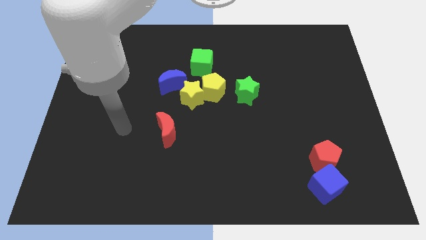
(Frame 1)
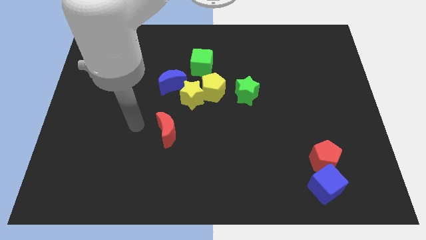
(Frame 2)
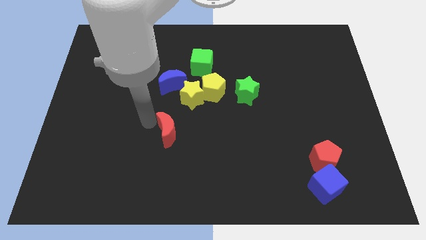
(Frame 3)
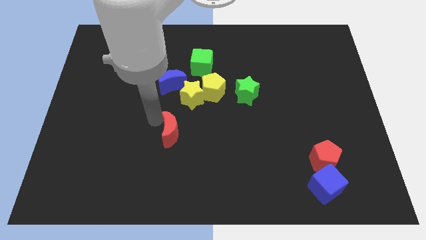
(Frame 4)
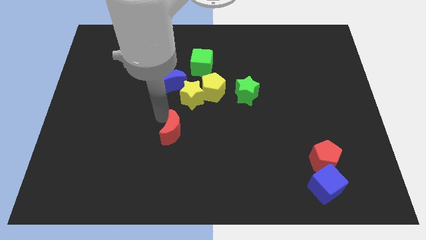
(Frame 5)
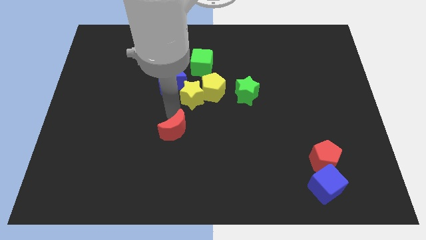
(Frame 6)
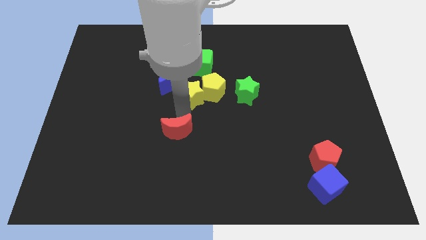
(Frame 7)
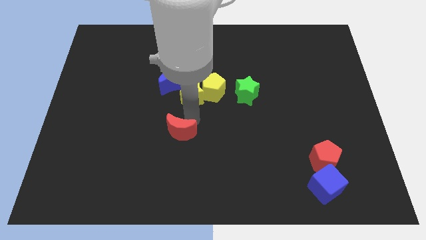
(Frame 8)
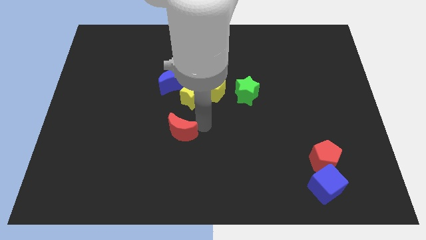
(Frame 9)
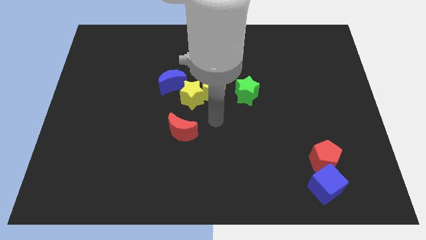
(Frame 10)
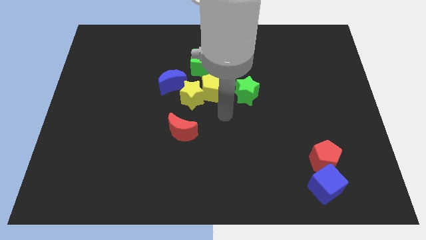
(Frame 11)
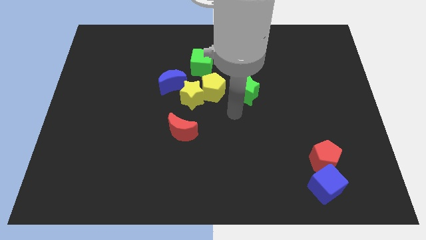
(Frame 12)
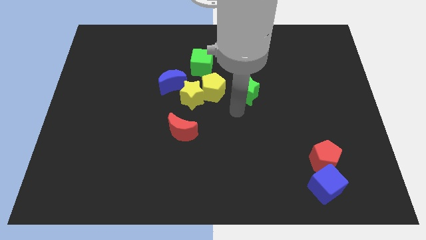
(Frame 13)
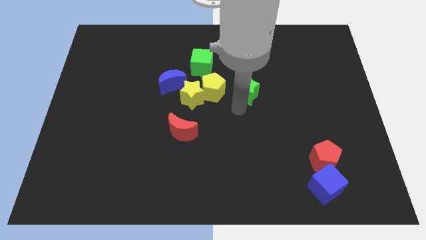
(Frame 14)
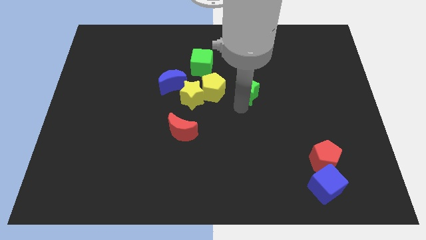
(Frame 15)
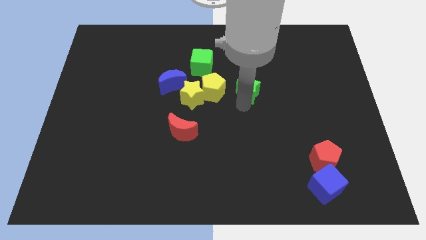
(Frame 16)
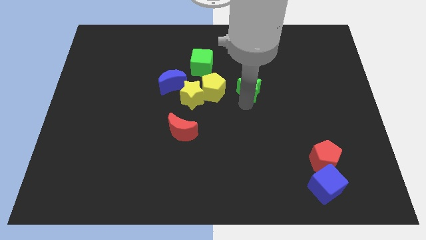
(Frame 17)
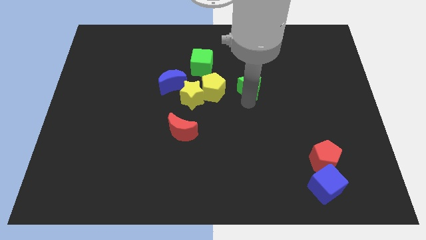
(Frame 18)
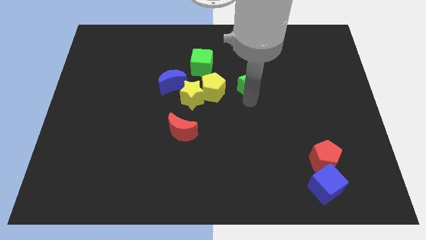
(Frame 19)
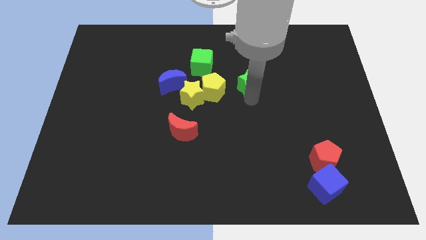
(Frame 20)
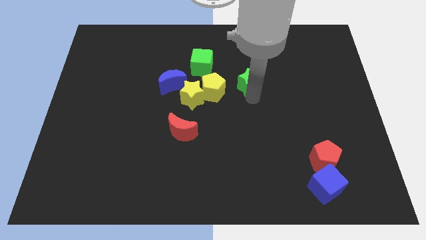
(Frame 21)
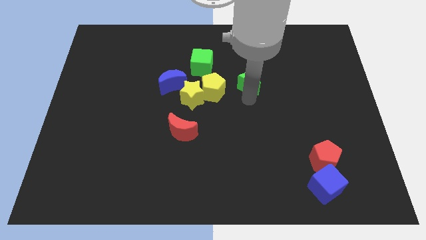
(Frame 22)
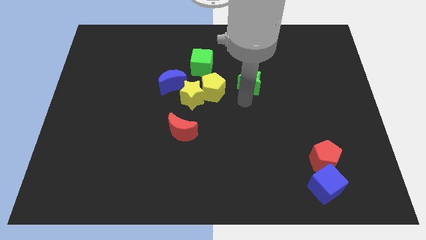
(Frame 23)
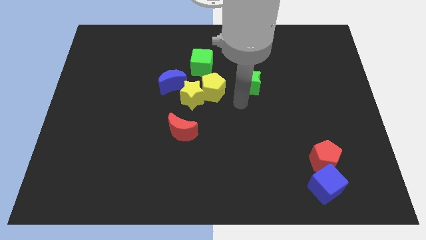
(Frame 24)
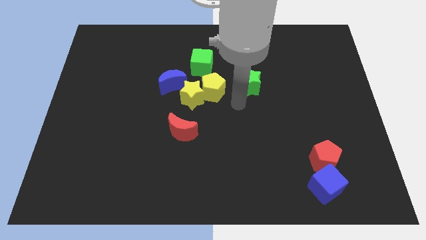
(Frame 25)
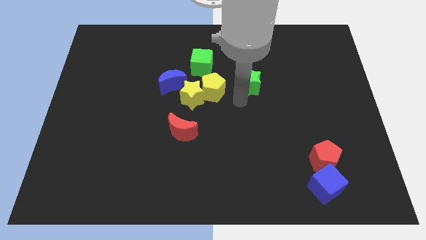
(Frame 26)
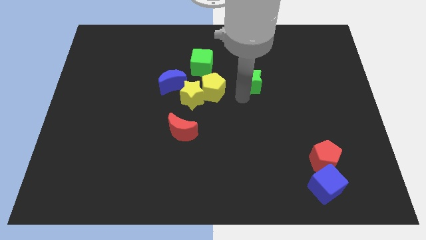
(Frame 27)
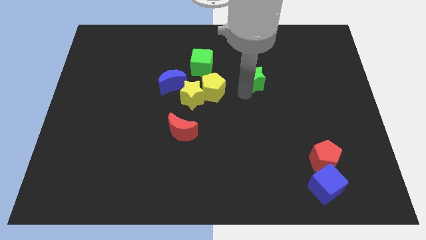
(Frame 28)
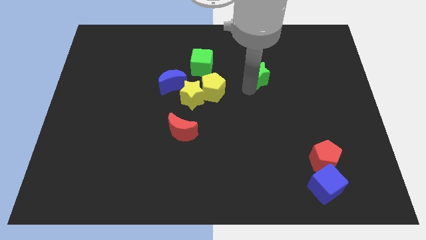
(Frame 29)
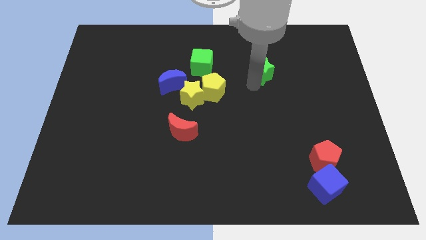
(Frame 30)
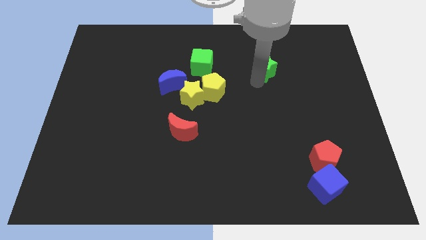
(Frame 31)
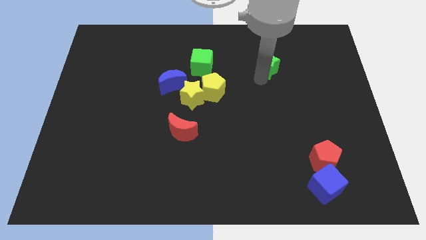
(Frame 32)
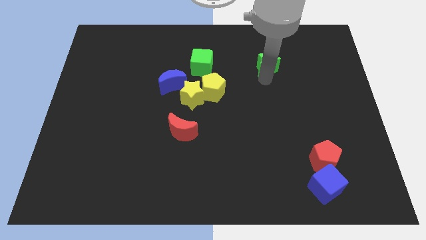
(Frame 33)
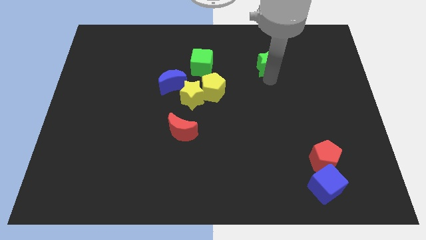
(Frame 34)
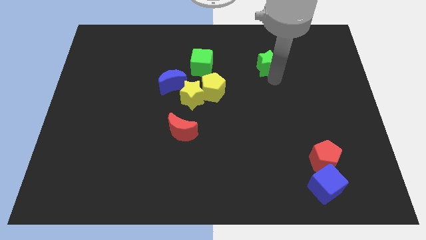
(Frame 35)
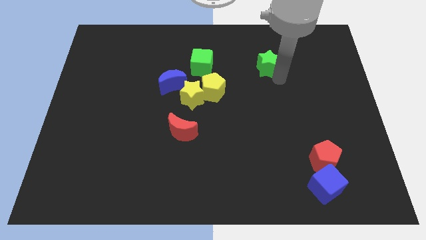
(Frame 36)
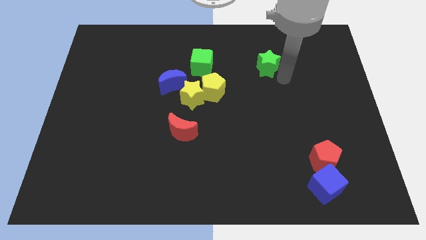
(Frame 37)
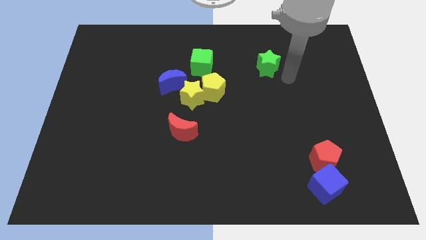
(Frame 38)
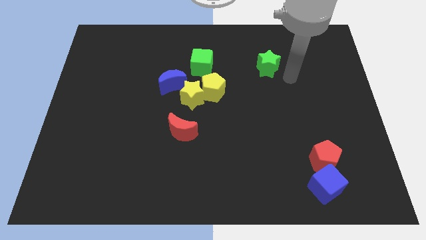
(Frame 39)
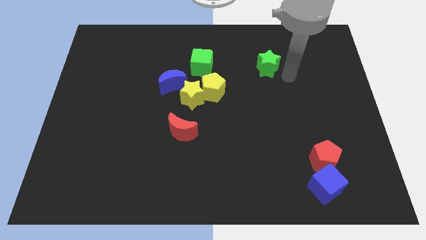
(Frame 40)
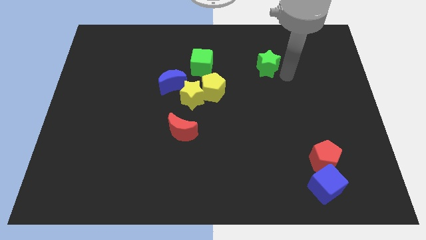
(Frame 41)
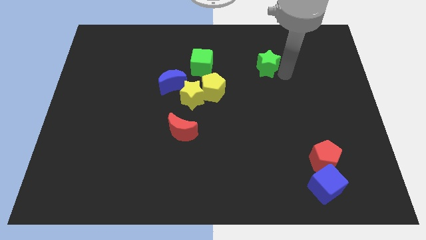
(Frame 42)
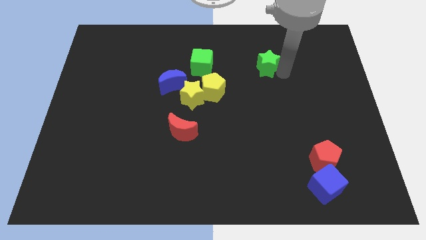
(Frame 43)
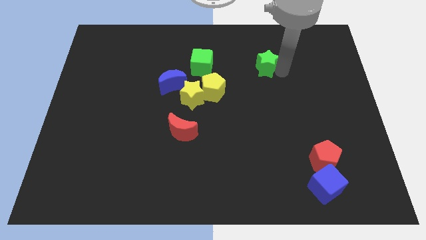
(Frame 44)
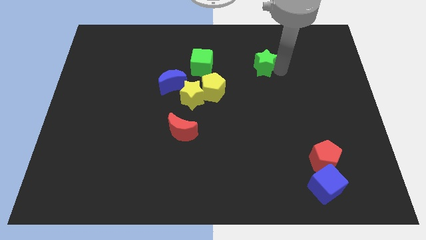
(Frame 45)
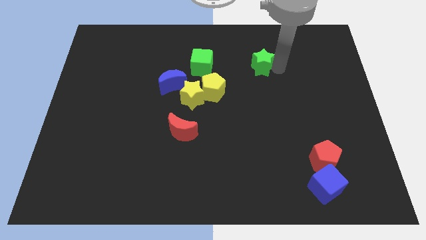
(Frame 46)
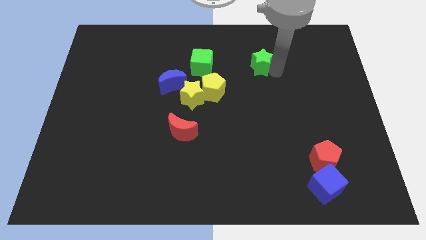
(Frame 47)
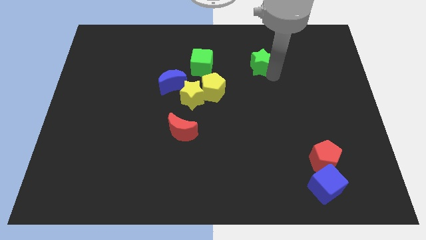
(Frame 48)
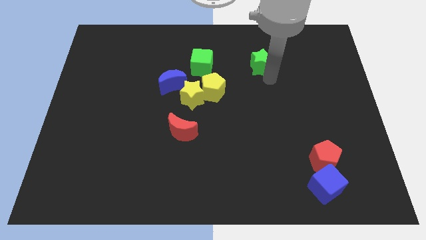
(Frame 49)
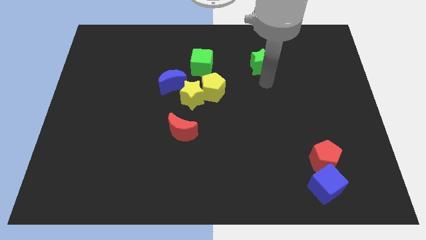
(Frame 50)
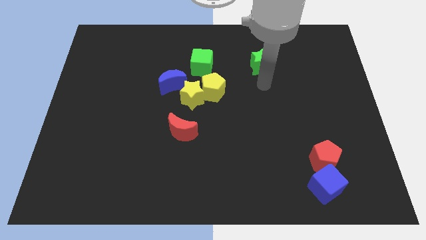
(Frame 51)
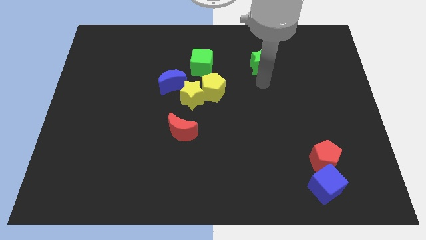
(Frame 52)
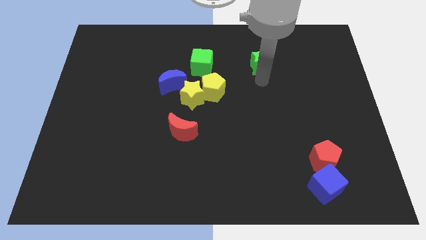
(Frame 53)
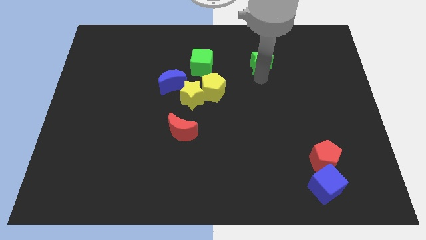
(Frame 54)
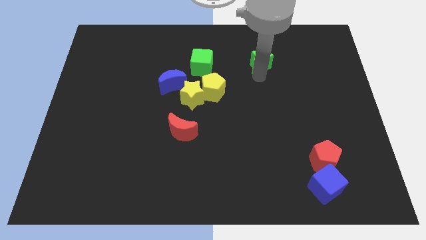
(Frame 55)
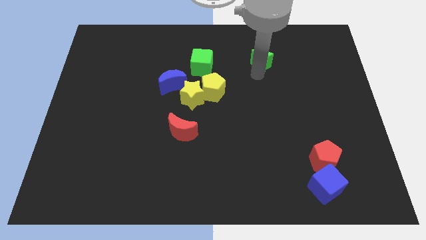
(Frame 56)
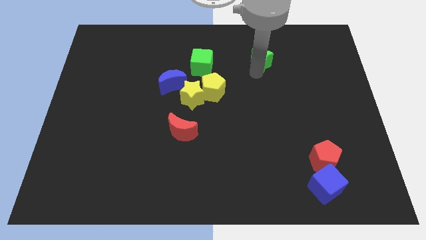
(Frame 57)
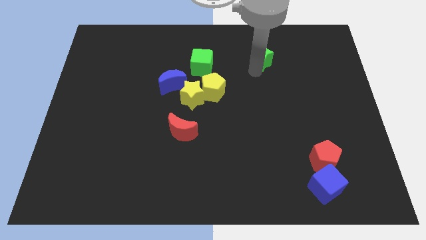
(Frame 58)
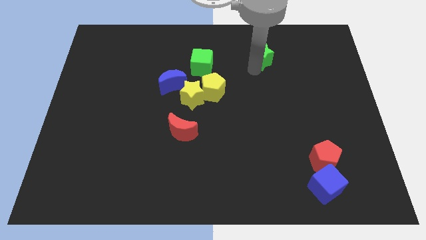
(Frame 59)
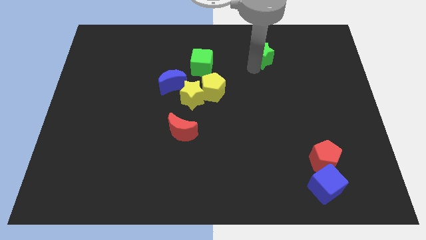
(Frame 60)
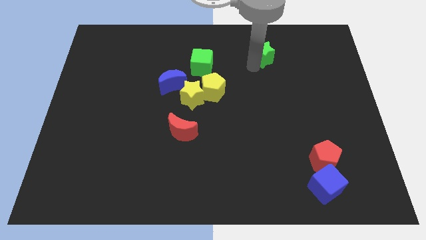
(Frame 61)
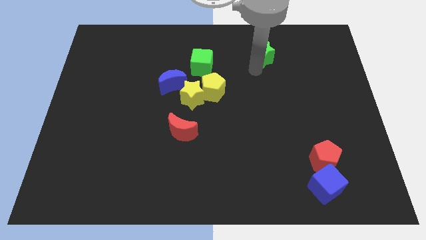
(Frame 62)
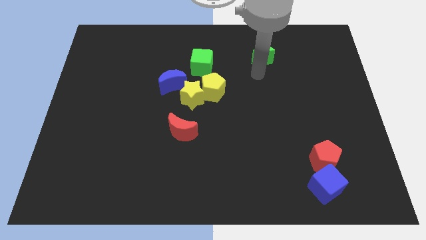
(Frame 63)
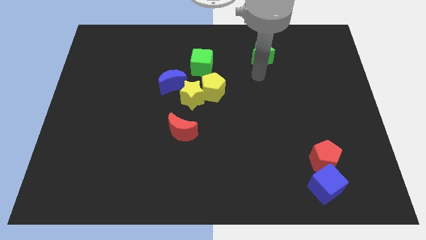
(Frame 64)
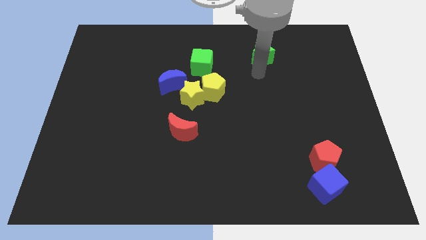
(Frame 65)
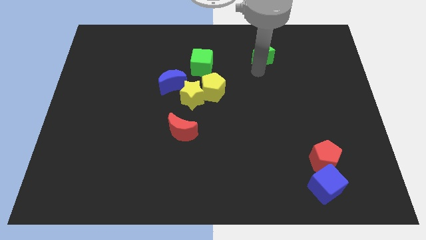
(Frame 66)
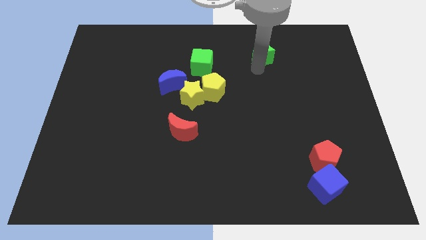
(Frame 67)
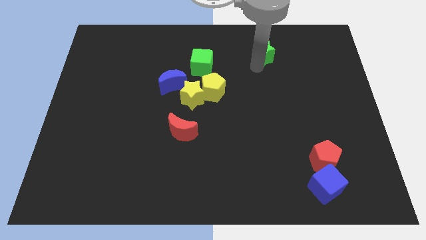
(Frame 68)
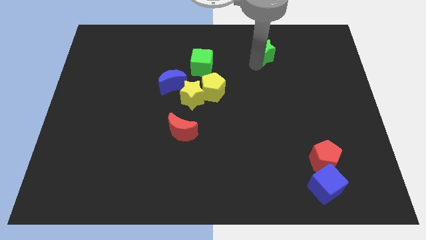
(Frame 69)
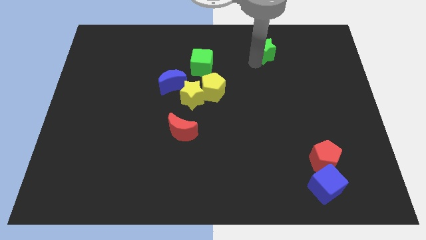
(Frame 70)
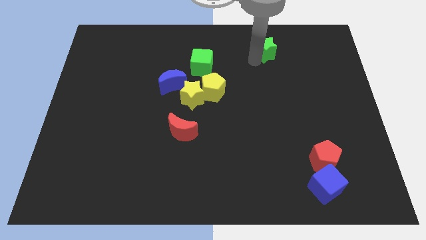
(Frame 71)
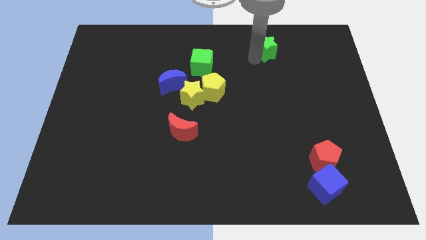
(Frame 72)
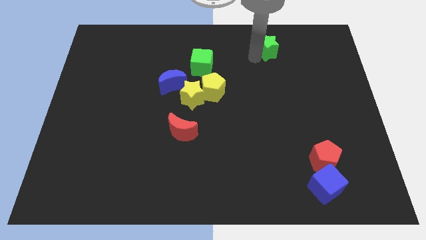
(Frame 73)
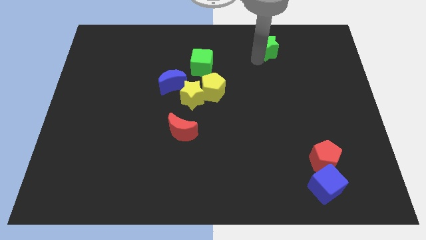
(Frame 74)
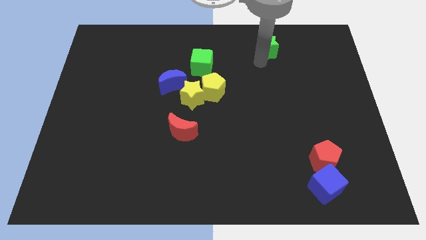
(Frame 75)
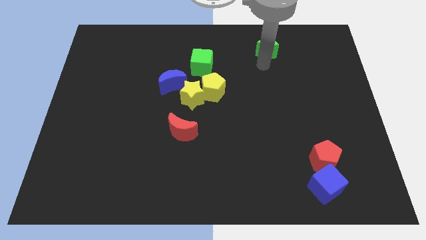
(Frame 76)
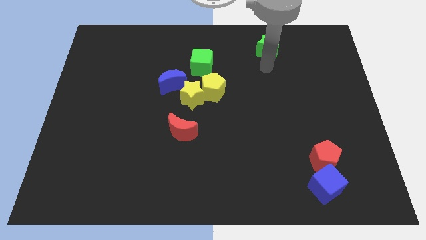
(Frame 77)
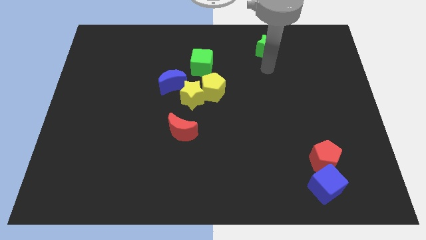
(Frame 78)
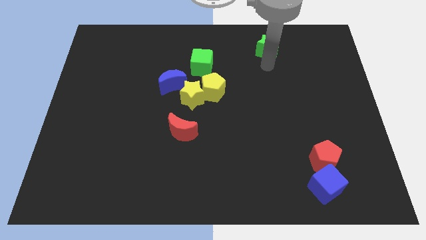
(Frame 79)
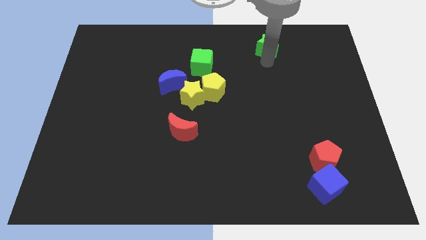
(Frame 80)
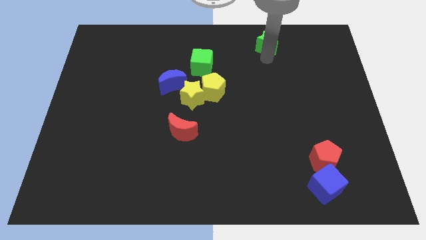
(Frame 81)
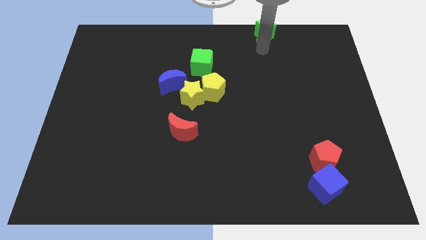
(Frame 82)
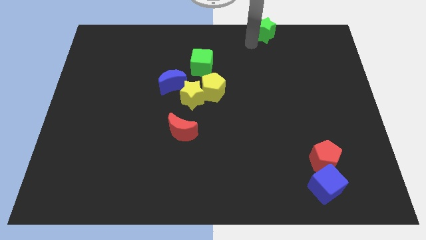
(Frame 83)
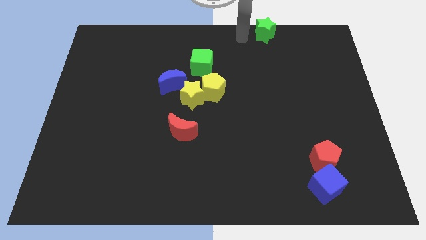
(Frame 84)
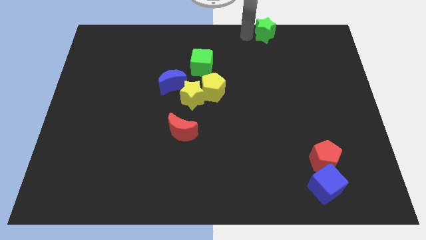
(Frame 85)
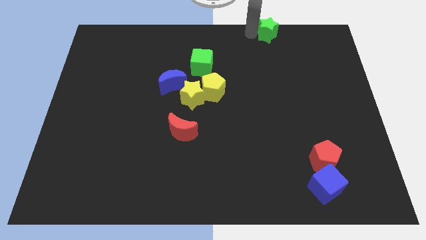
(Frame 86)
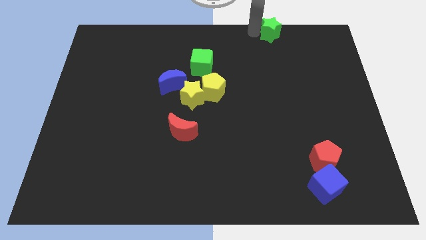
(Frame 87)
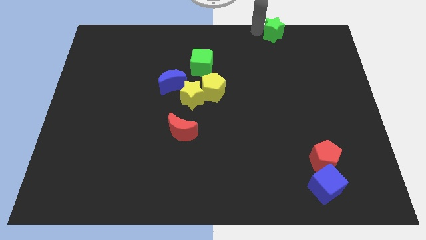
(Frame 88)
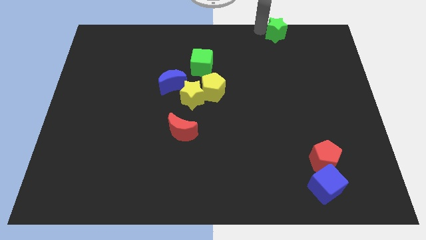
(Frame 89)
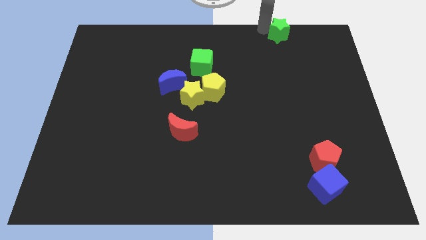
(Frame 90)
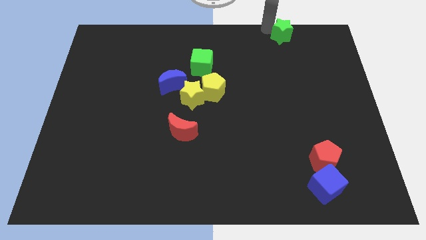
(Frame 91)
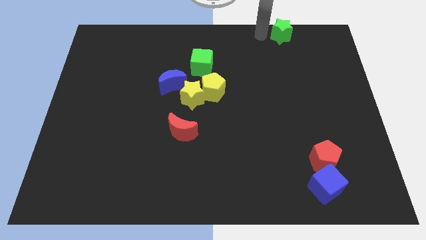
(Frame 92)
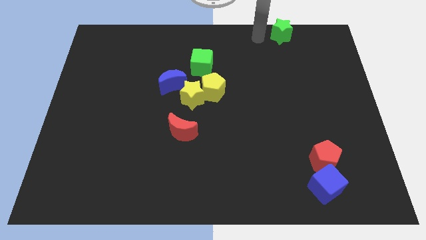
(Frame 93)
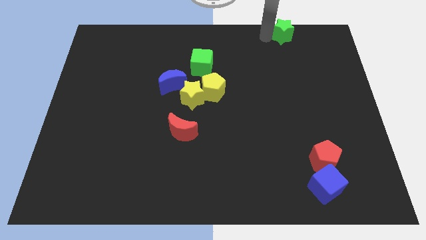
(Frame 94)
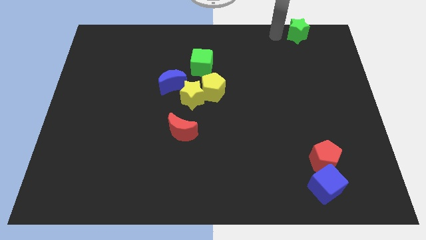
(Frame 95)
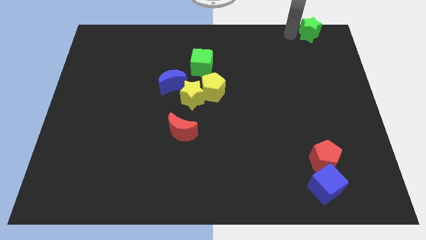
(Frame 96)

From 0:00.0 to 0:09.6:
push the green star to the upper right corner
